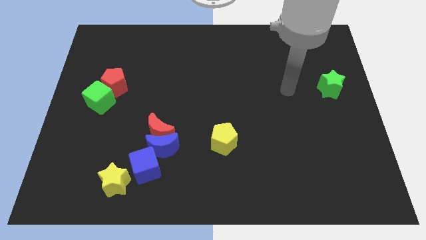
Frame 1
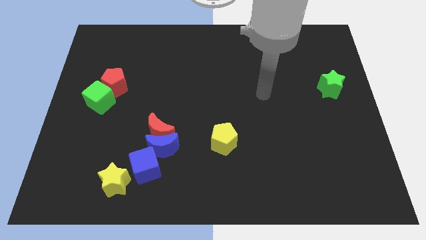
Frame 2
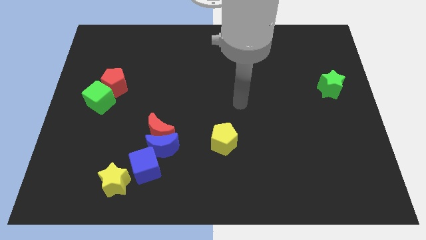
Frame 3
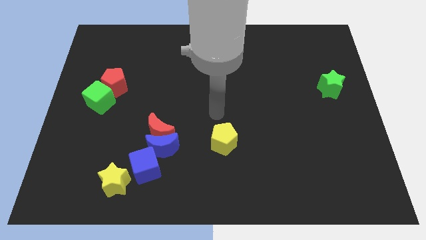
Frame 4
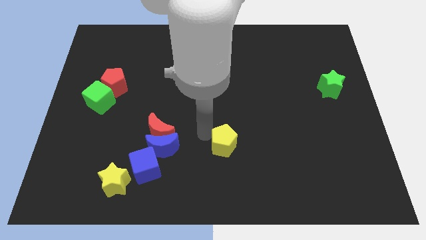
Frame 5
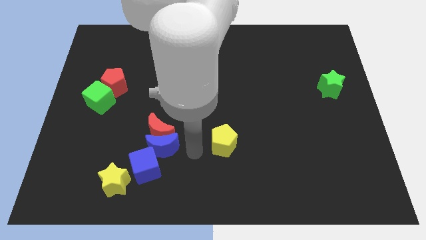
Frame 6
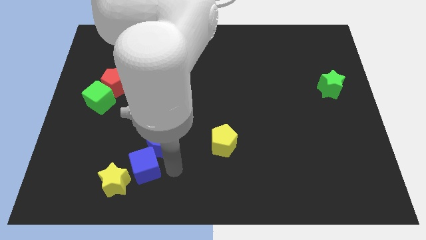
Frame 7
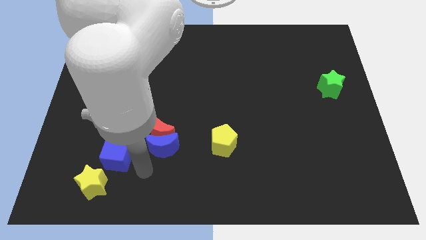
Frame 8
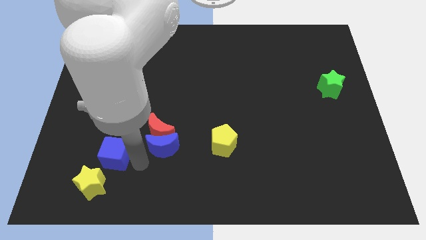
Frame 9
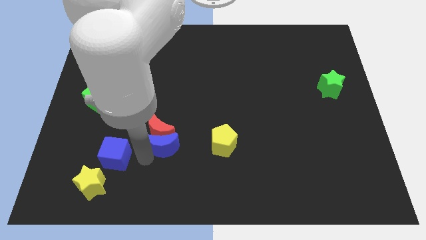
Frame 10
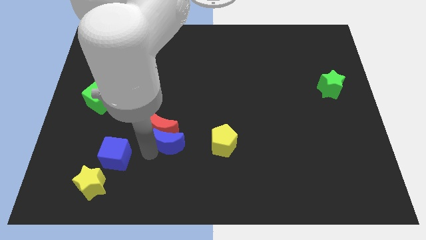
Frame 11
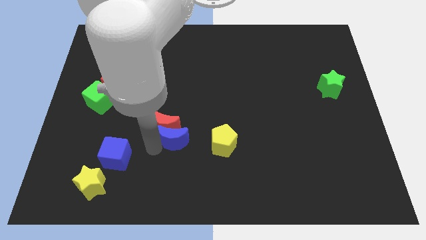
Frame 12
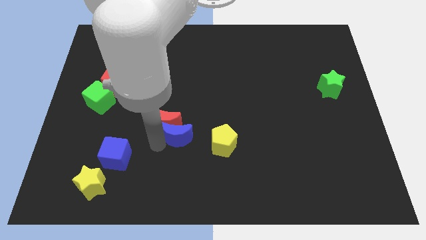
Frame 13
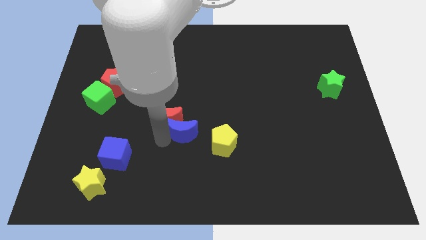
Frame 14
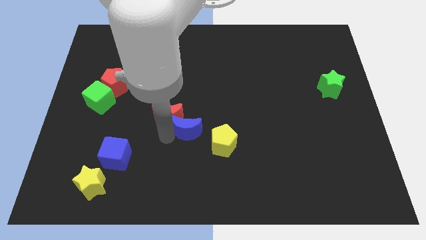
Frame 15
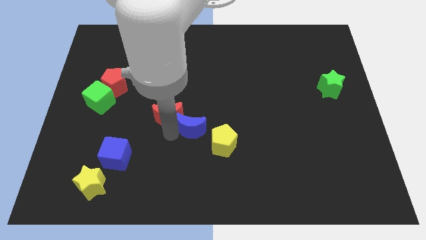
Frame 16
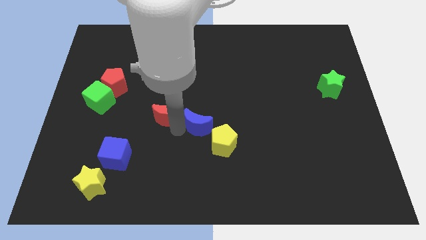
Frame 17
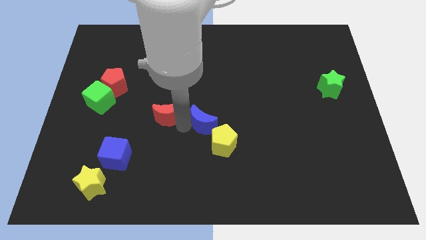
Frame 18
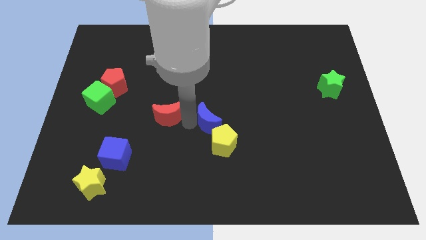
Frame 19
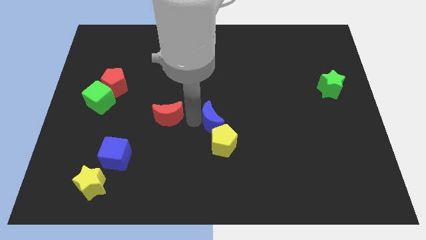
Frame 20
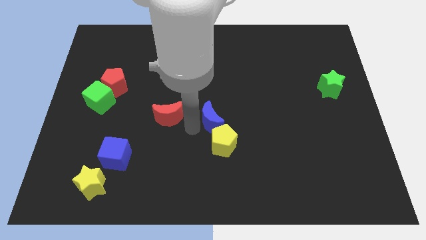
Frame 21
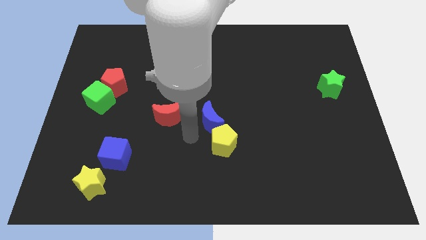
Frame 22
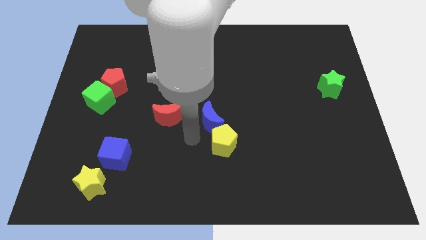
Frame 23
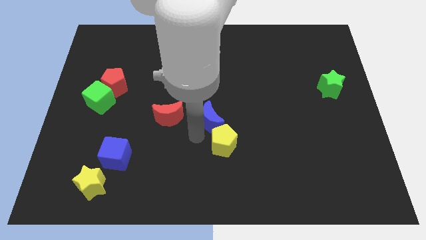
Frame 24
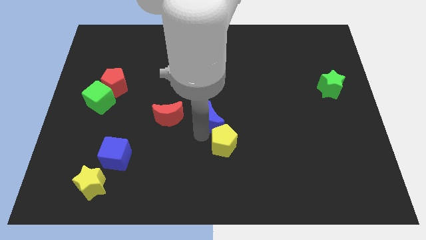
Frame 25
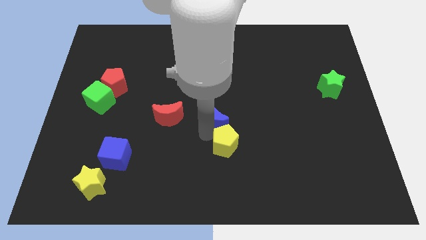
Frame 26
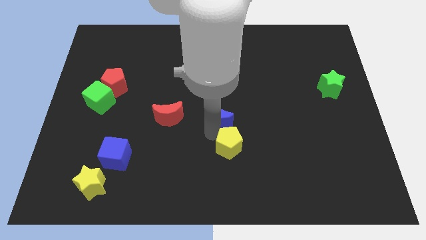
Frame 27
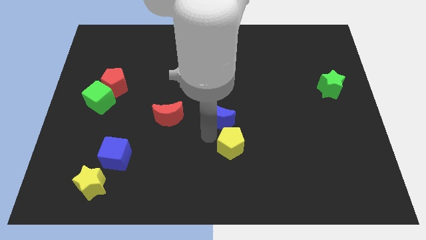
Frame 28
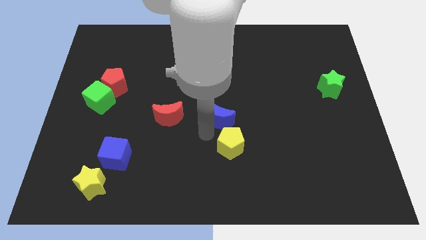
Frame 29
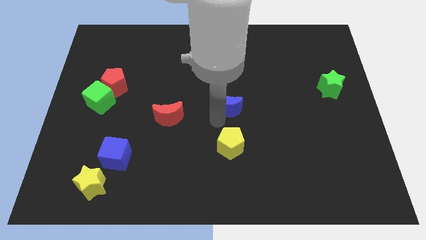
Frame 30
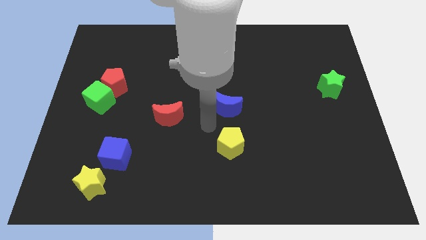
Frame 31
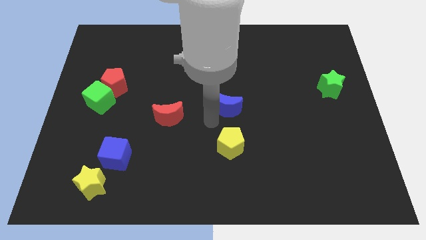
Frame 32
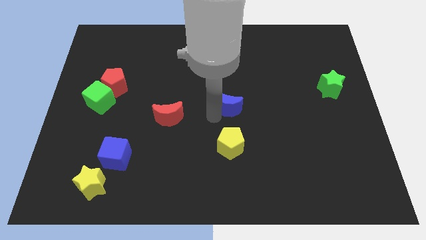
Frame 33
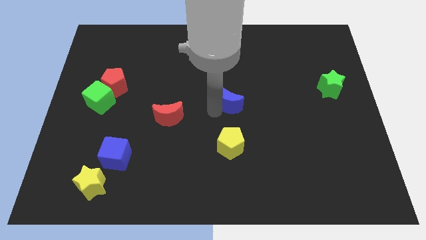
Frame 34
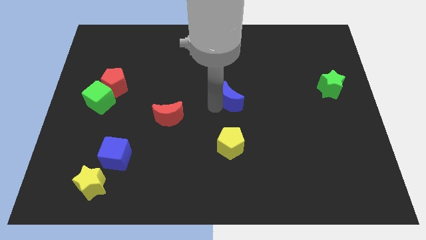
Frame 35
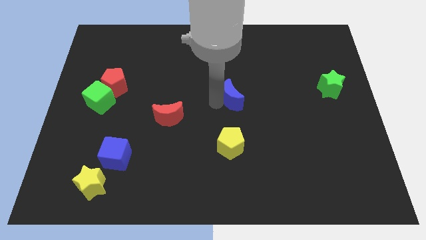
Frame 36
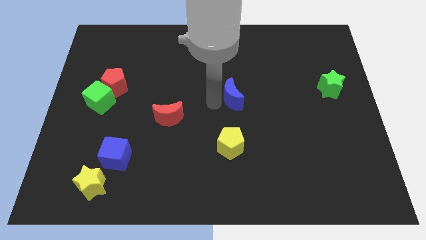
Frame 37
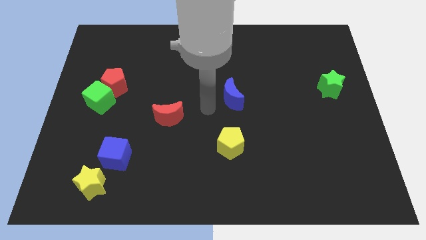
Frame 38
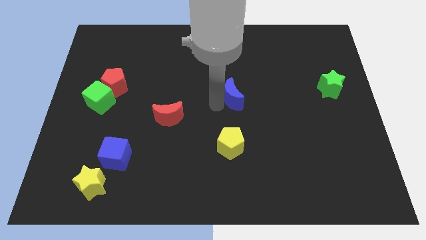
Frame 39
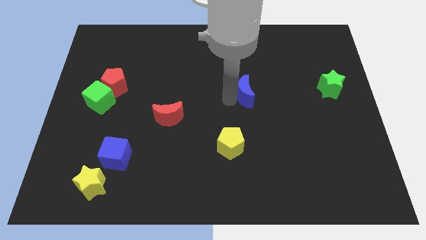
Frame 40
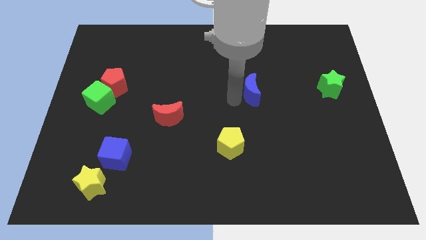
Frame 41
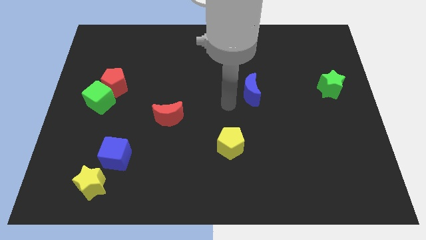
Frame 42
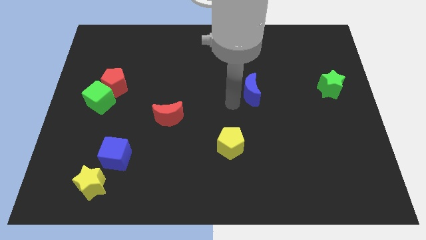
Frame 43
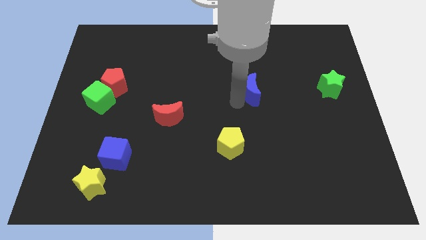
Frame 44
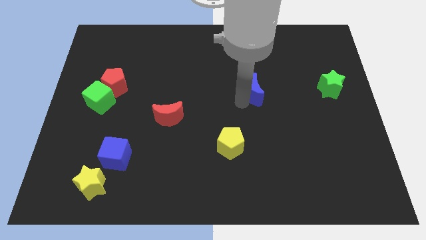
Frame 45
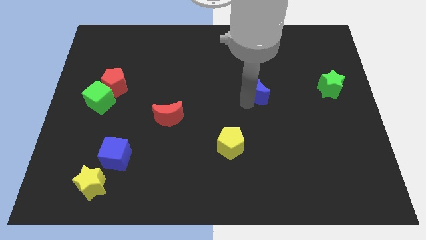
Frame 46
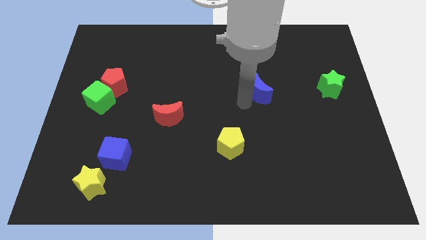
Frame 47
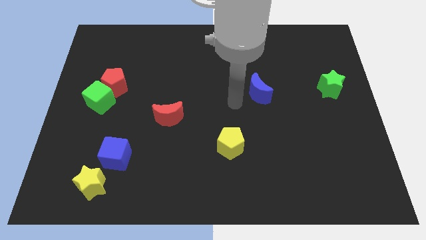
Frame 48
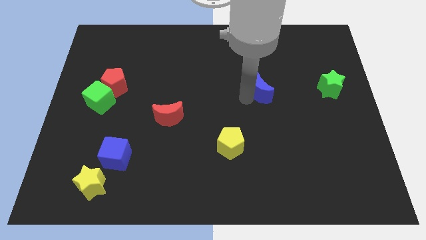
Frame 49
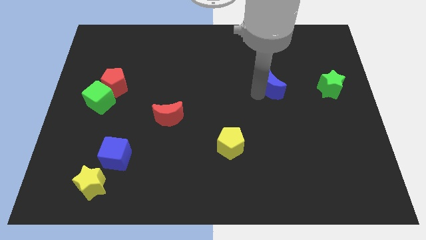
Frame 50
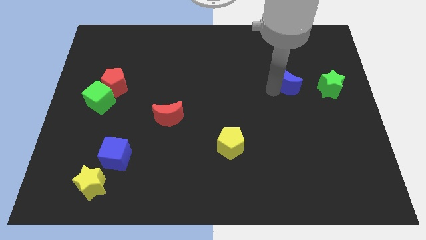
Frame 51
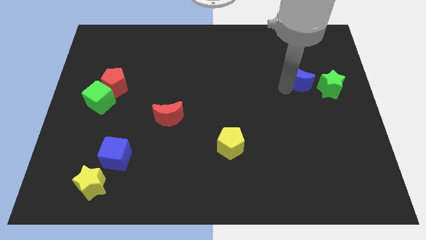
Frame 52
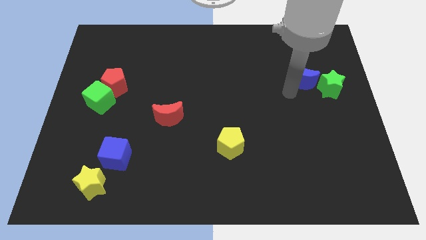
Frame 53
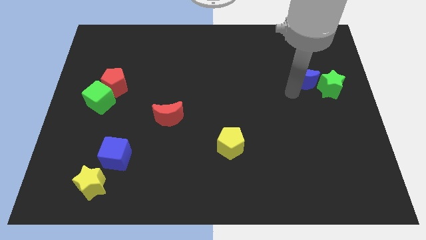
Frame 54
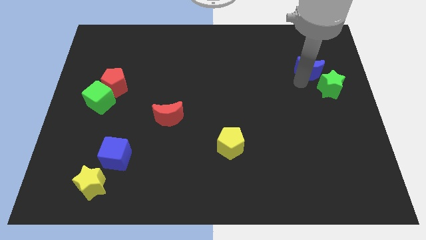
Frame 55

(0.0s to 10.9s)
move the blue moon to the top side of the green star

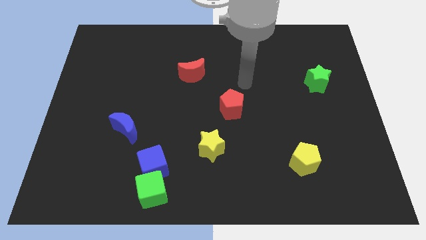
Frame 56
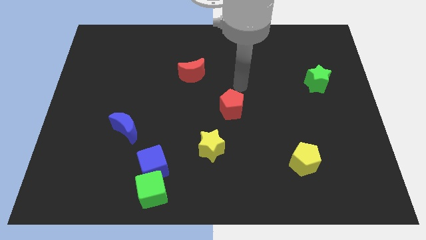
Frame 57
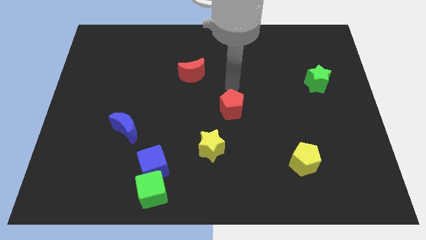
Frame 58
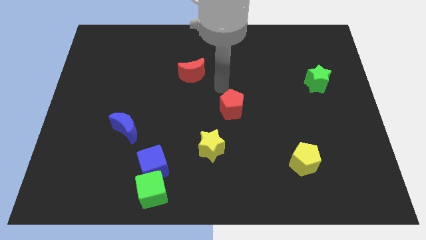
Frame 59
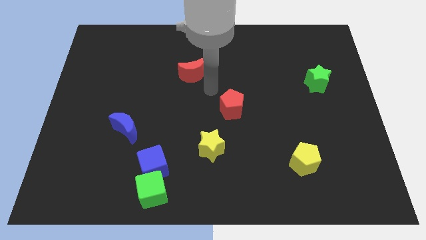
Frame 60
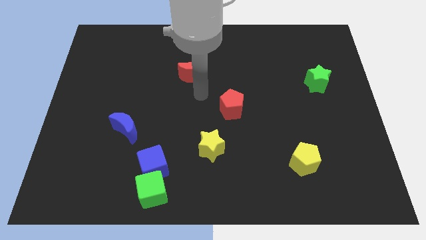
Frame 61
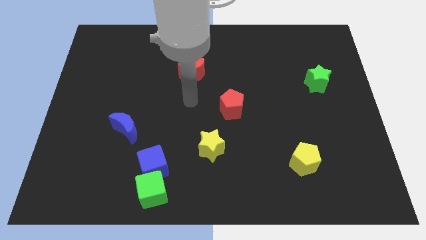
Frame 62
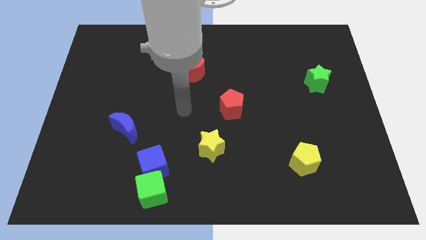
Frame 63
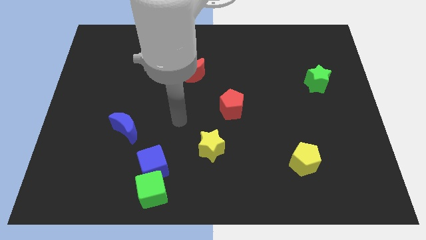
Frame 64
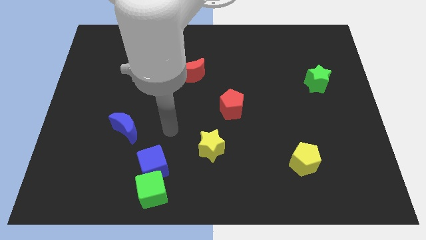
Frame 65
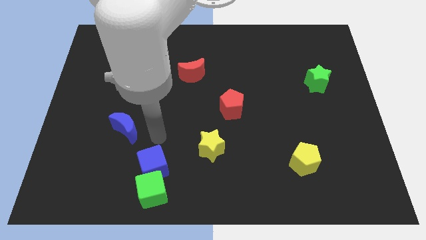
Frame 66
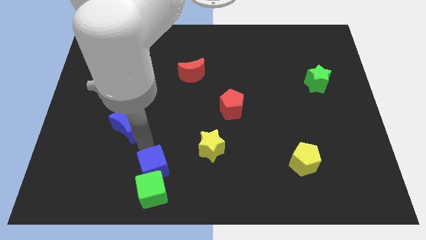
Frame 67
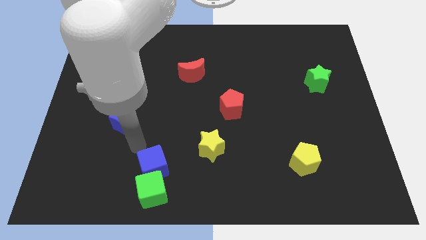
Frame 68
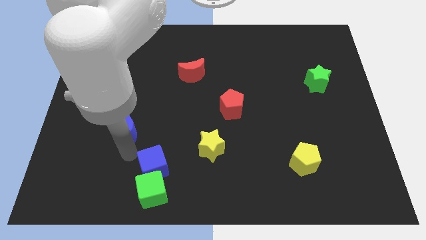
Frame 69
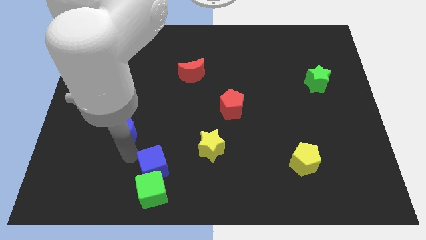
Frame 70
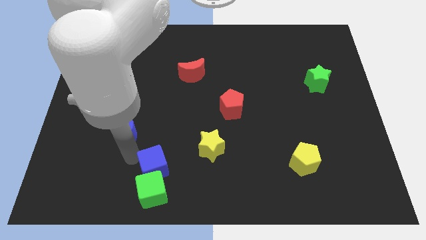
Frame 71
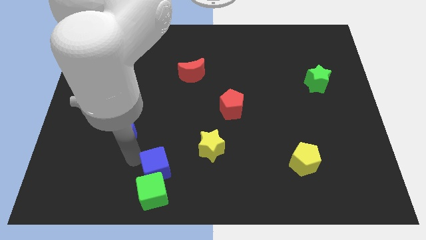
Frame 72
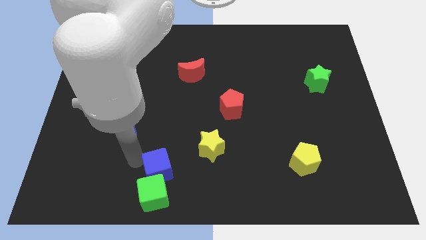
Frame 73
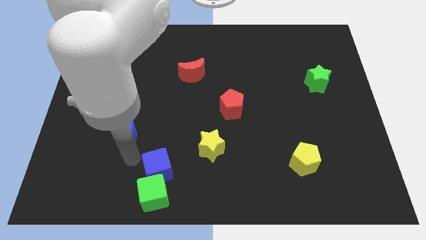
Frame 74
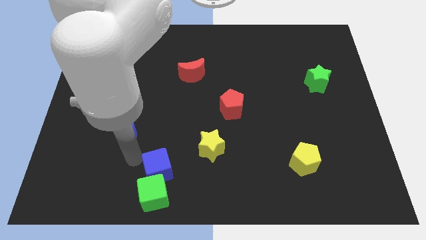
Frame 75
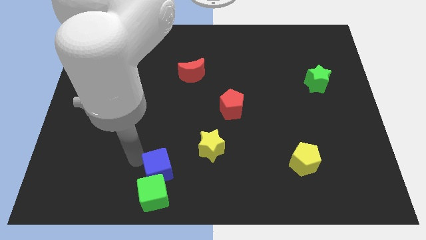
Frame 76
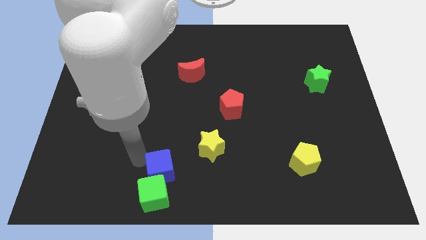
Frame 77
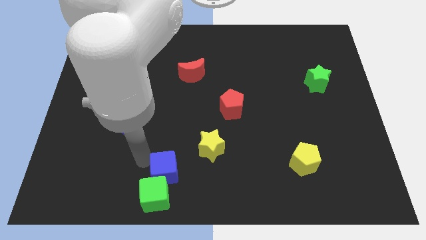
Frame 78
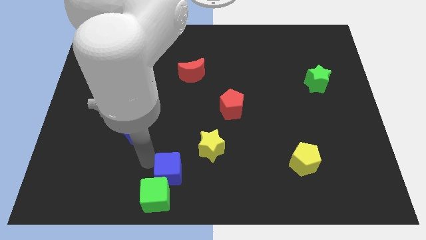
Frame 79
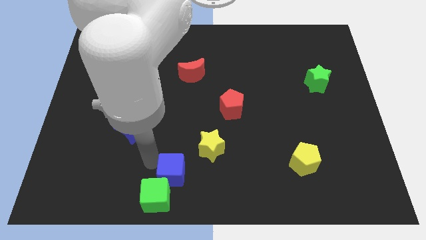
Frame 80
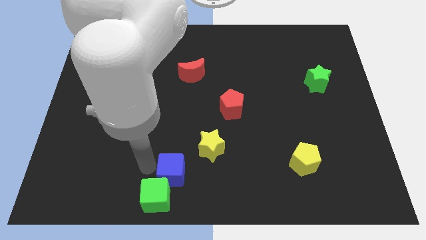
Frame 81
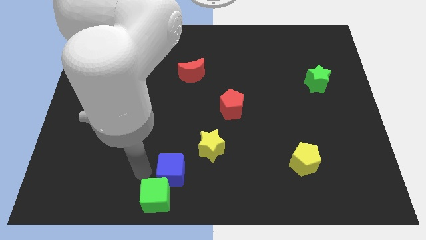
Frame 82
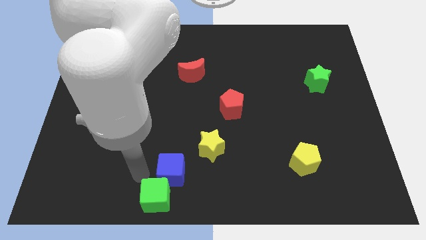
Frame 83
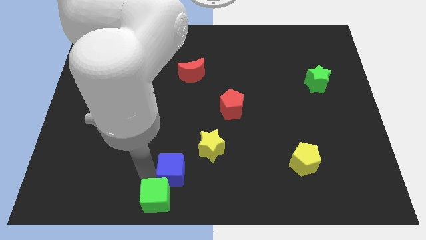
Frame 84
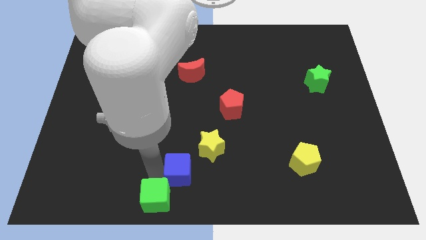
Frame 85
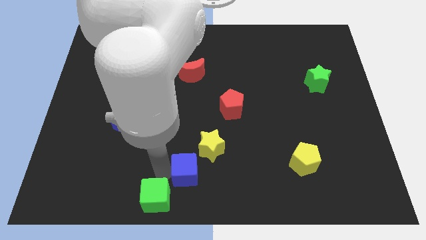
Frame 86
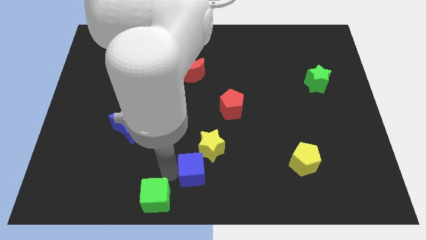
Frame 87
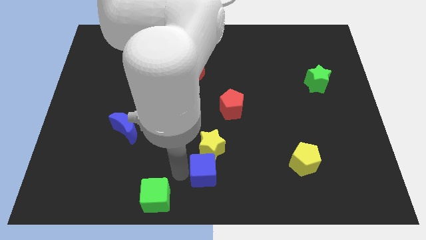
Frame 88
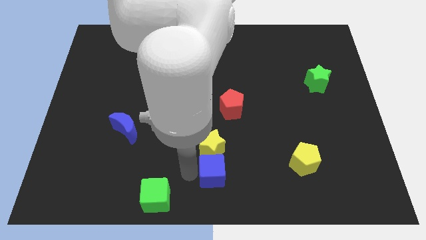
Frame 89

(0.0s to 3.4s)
push the blue cube diagonally down and to the right of the yellow star
